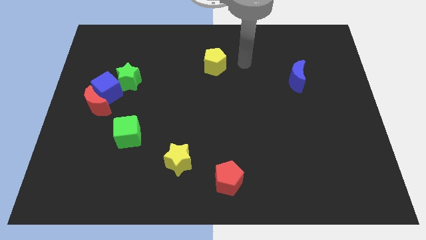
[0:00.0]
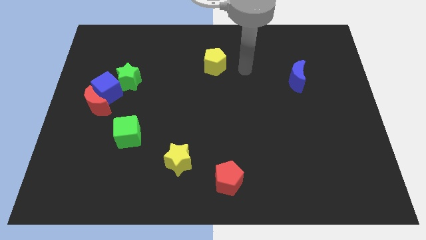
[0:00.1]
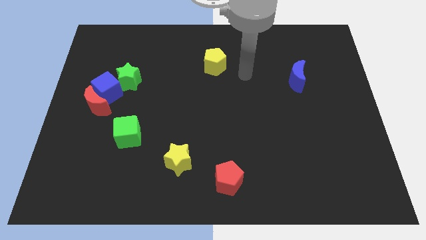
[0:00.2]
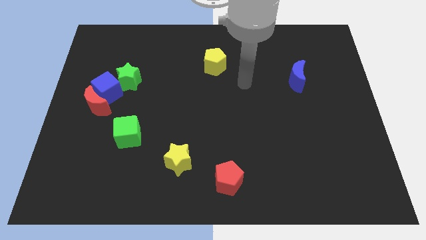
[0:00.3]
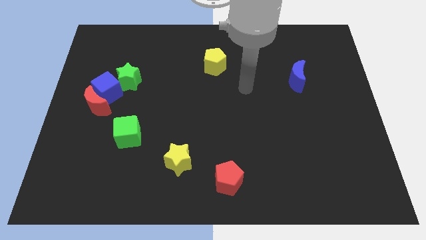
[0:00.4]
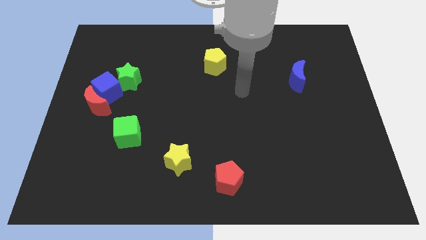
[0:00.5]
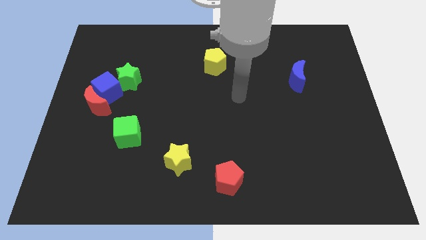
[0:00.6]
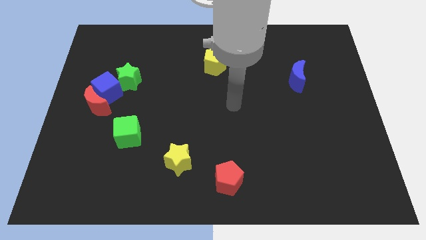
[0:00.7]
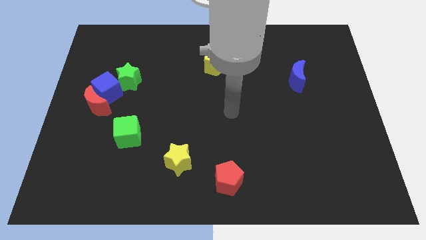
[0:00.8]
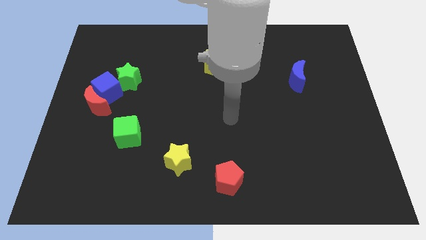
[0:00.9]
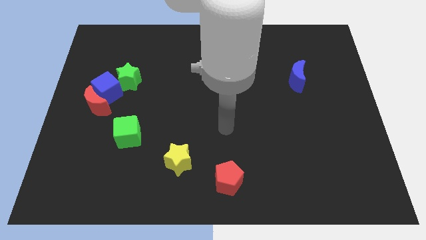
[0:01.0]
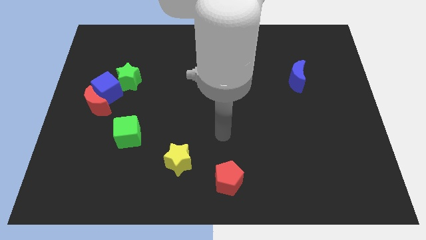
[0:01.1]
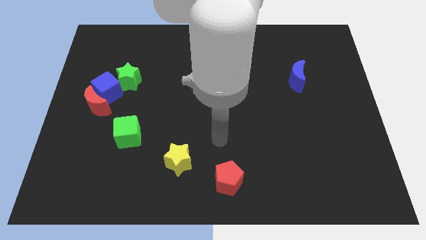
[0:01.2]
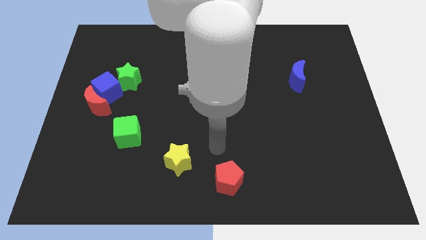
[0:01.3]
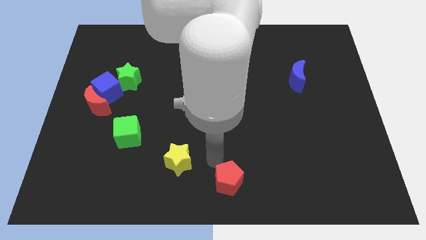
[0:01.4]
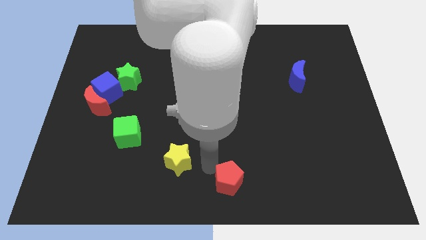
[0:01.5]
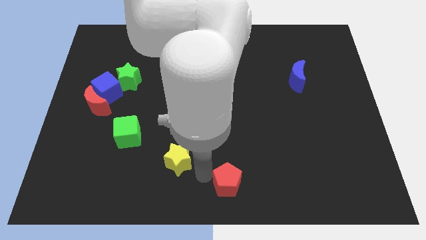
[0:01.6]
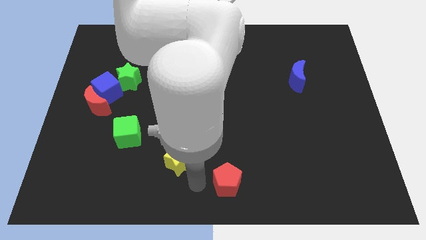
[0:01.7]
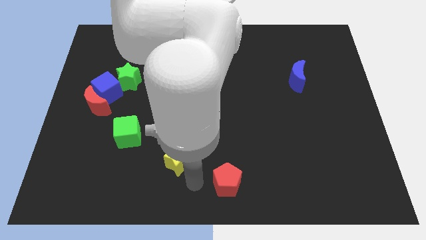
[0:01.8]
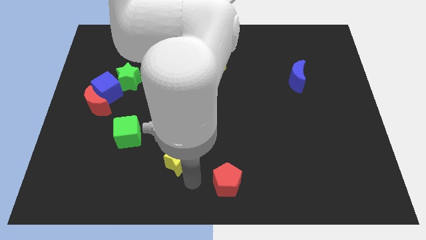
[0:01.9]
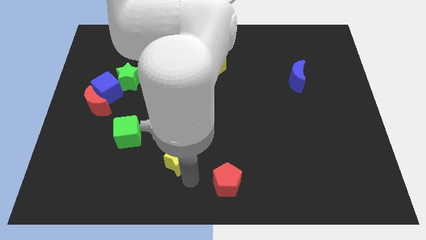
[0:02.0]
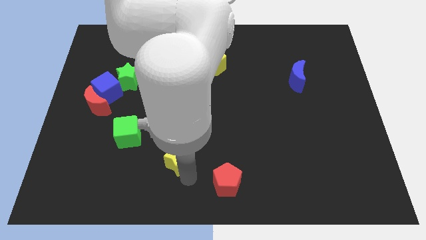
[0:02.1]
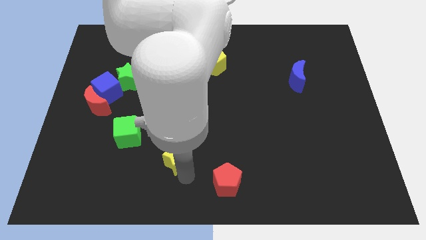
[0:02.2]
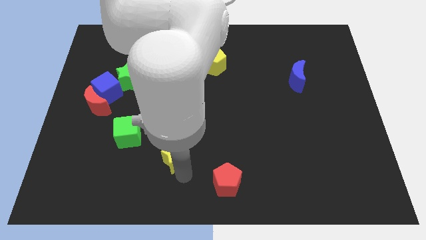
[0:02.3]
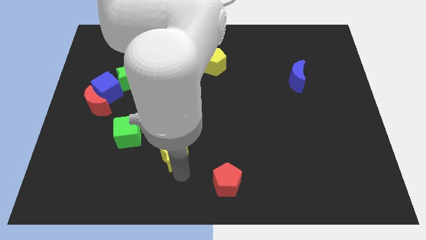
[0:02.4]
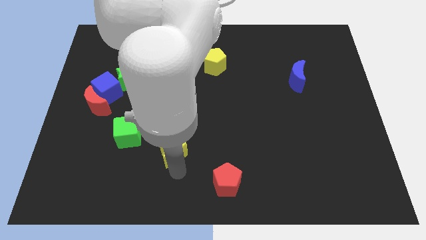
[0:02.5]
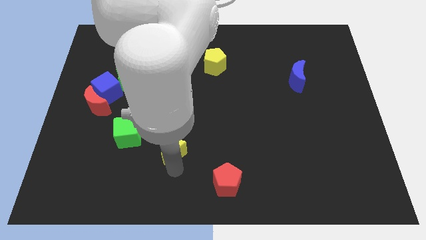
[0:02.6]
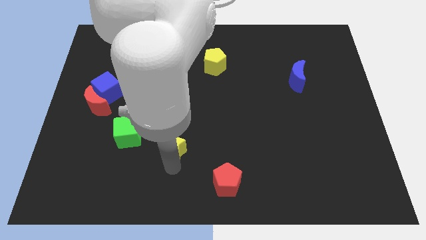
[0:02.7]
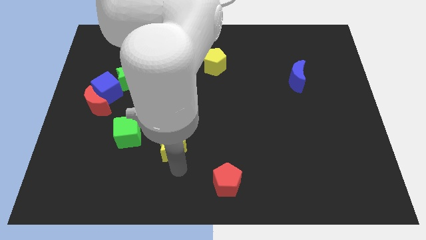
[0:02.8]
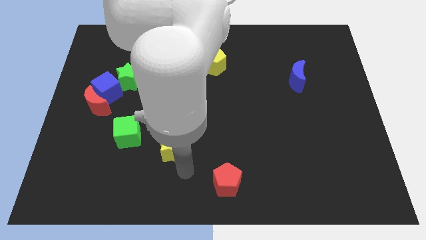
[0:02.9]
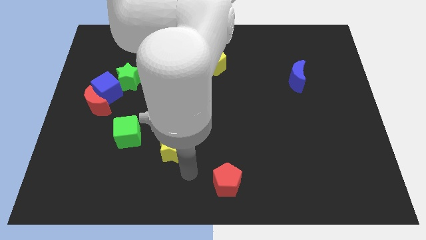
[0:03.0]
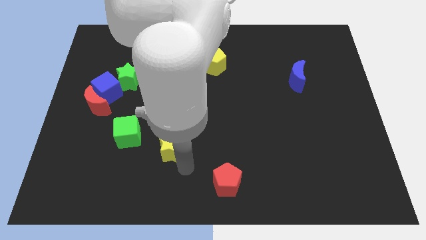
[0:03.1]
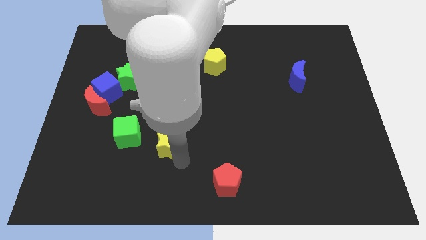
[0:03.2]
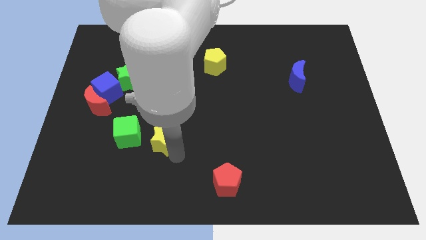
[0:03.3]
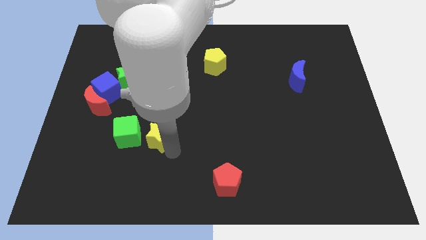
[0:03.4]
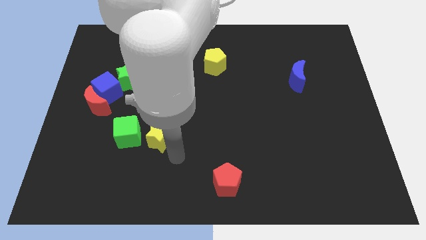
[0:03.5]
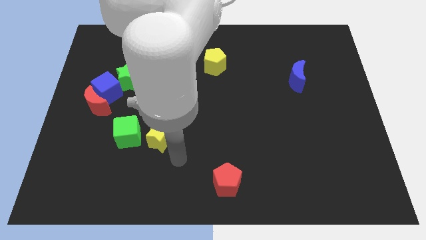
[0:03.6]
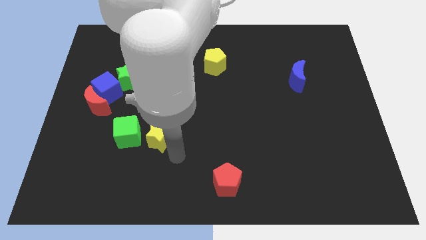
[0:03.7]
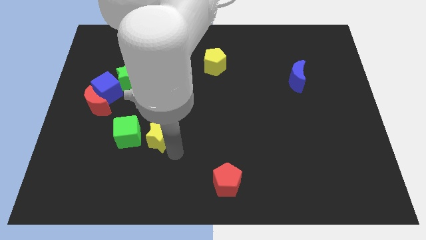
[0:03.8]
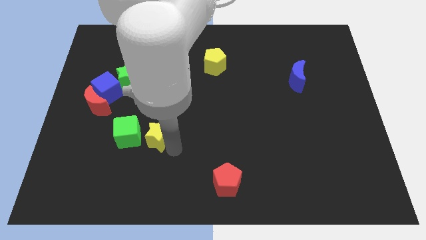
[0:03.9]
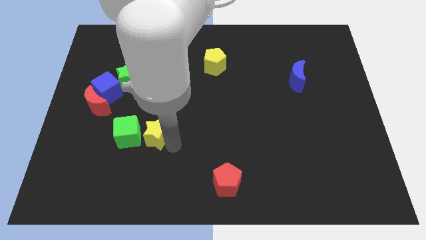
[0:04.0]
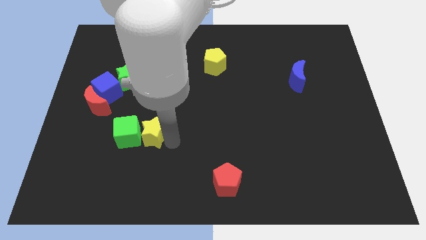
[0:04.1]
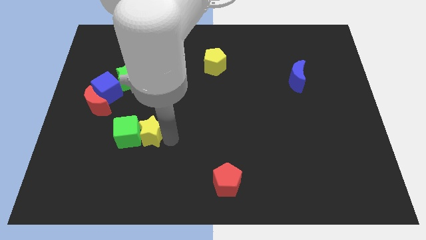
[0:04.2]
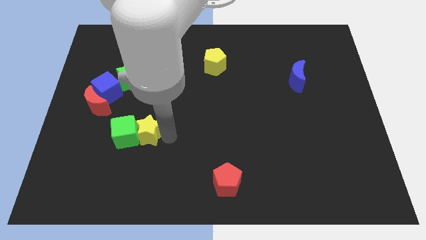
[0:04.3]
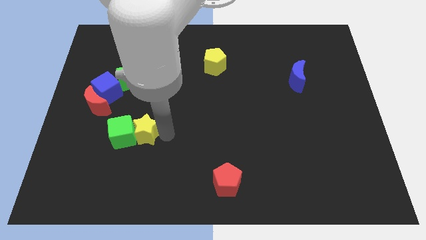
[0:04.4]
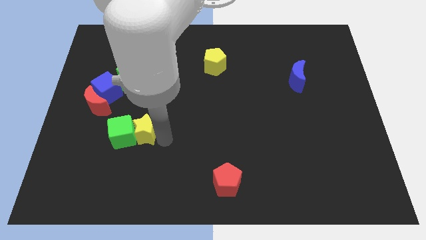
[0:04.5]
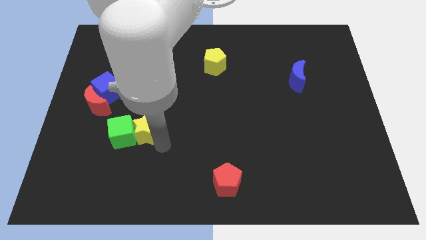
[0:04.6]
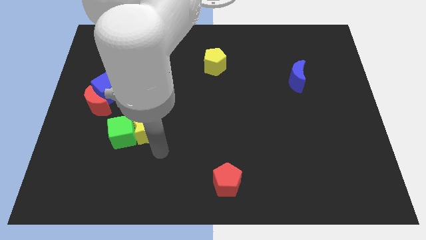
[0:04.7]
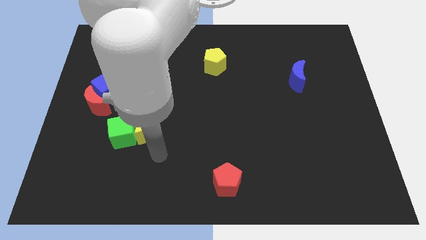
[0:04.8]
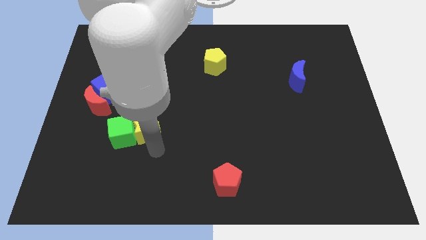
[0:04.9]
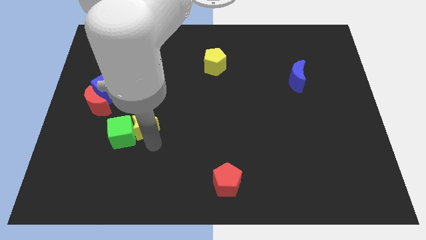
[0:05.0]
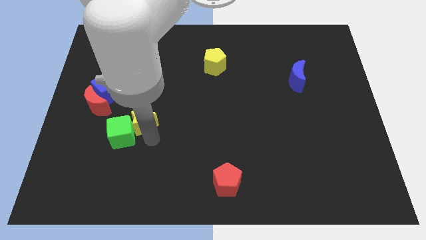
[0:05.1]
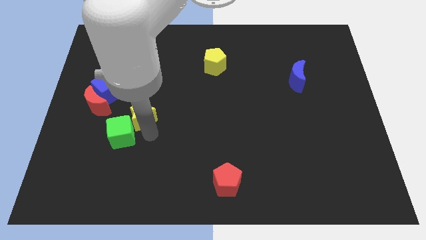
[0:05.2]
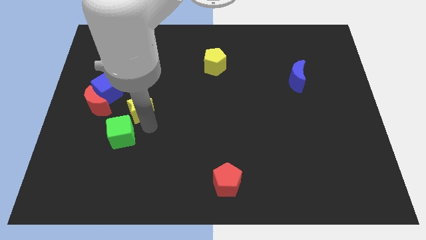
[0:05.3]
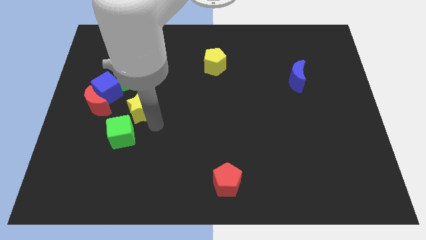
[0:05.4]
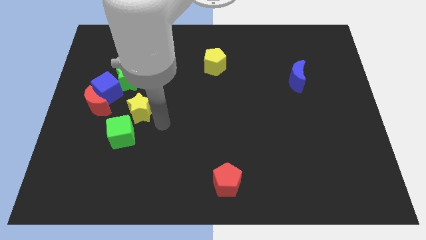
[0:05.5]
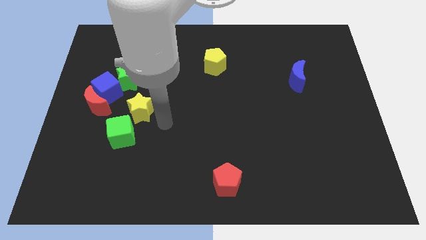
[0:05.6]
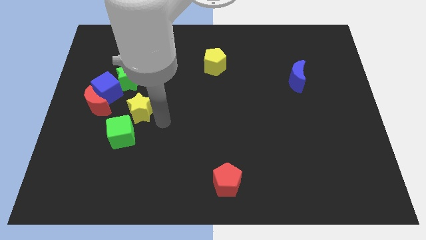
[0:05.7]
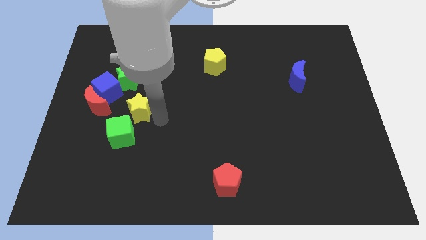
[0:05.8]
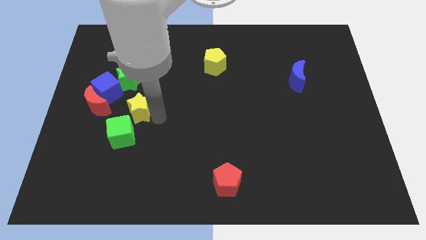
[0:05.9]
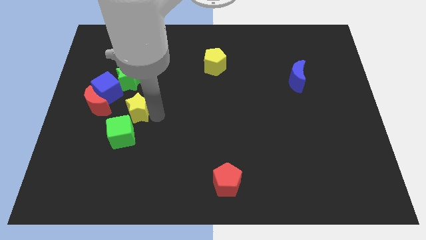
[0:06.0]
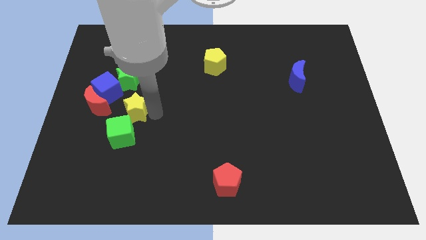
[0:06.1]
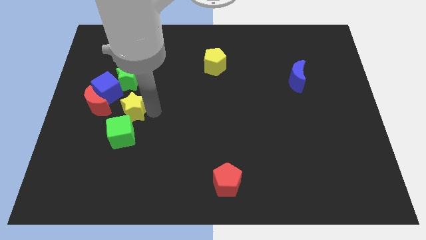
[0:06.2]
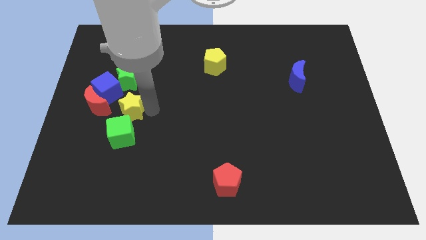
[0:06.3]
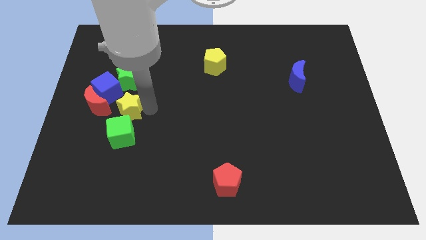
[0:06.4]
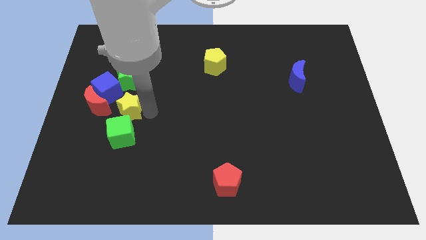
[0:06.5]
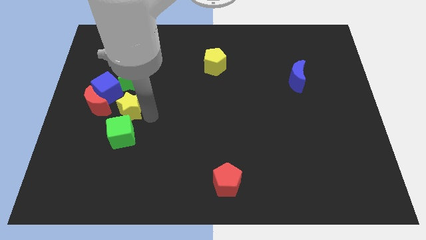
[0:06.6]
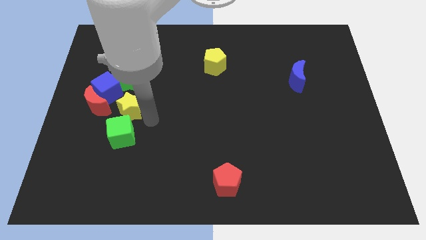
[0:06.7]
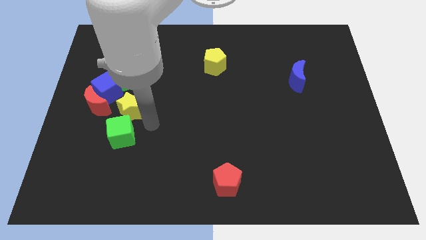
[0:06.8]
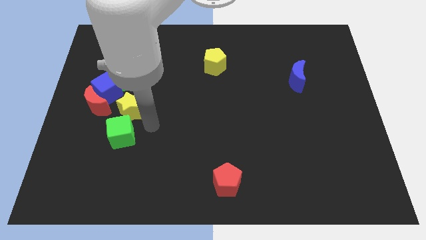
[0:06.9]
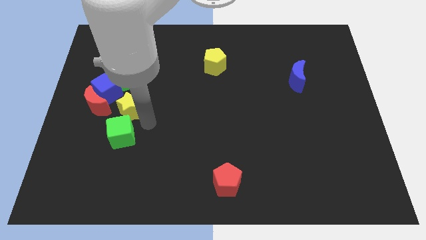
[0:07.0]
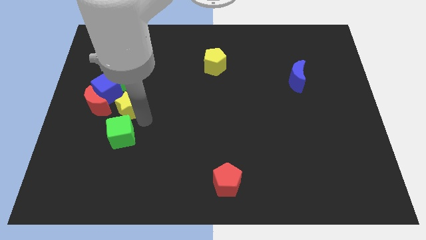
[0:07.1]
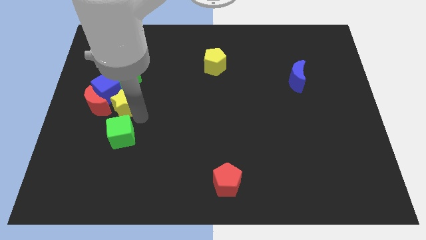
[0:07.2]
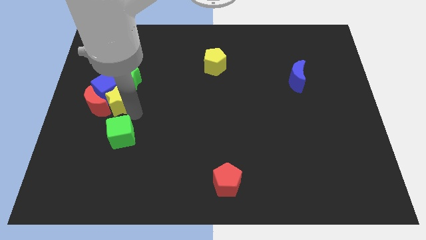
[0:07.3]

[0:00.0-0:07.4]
put the yellow star towards the blue cube
